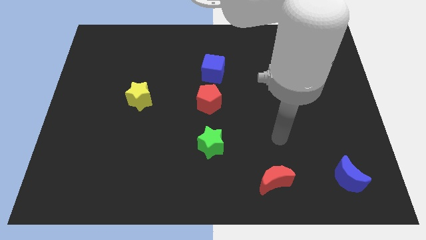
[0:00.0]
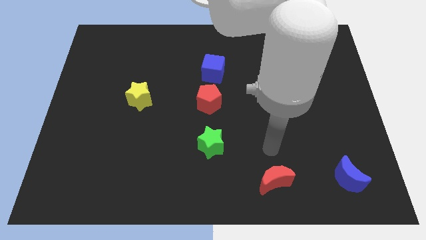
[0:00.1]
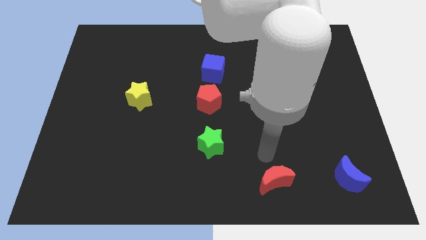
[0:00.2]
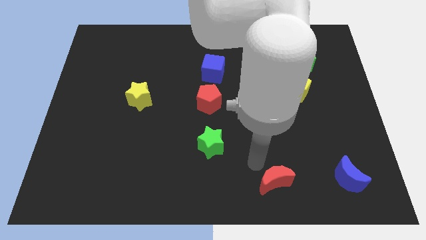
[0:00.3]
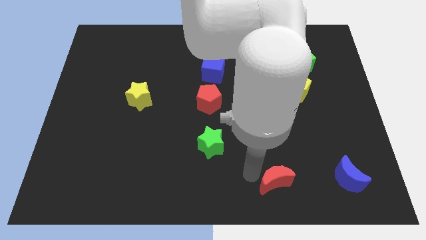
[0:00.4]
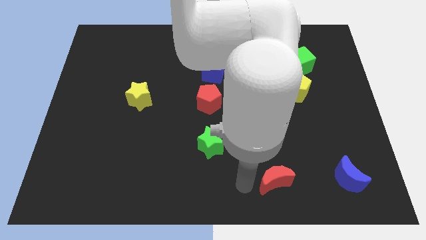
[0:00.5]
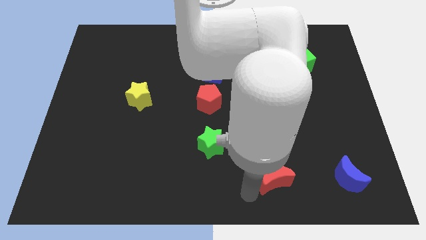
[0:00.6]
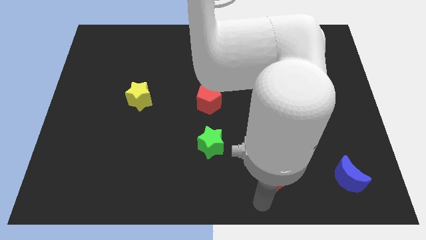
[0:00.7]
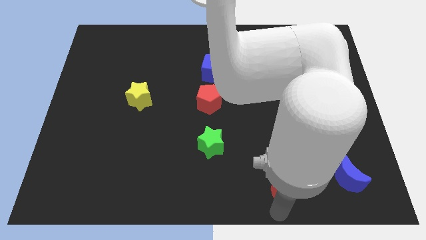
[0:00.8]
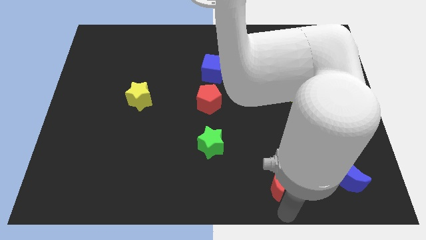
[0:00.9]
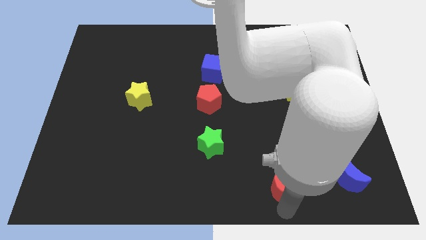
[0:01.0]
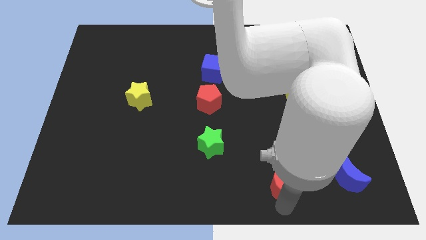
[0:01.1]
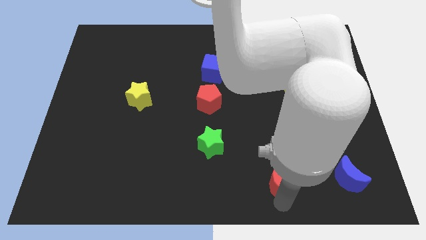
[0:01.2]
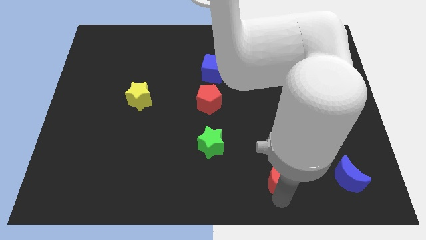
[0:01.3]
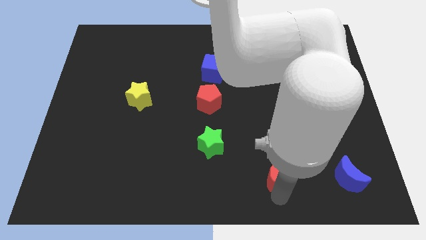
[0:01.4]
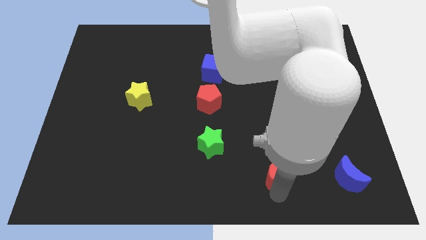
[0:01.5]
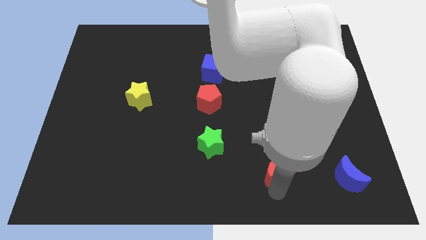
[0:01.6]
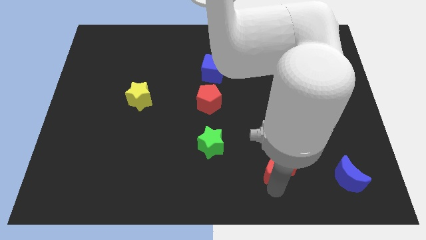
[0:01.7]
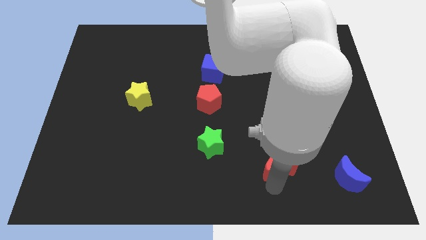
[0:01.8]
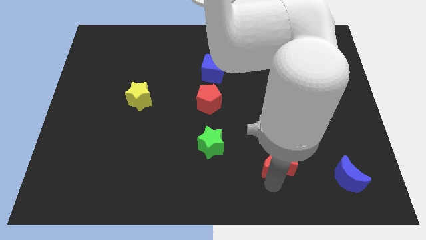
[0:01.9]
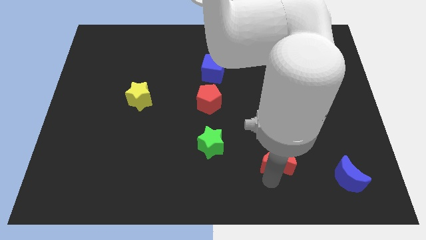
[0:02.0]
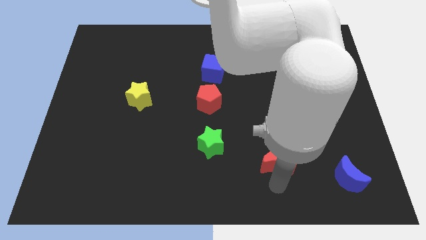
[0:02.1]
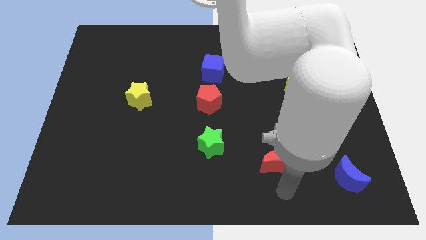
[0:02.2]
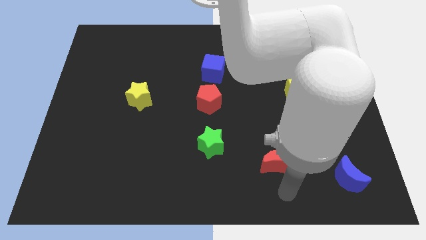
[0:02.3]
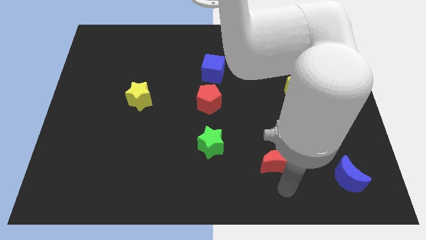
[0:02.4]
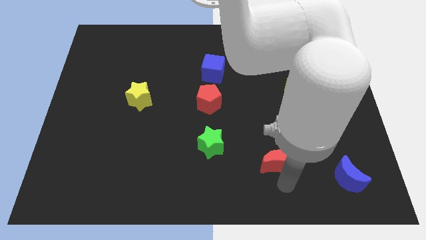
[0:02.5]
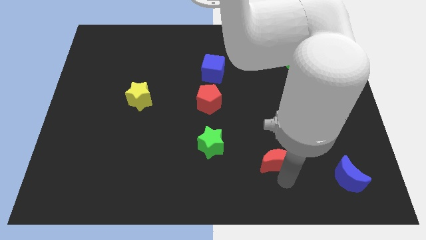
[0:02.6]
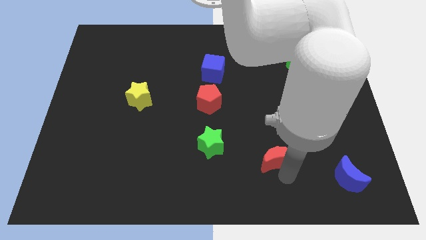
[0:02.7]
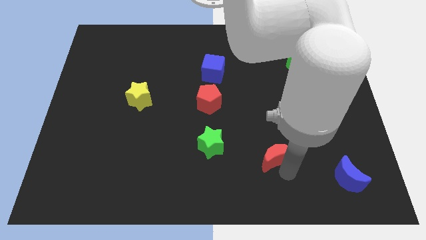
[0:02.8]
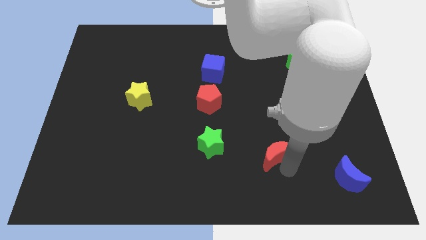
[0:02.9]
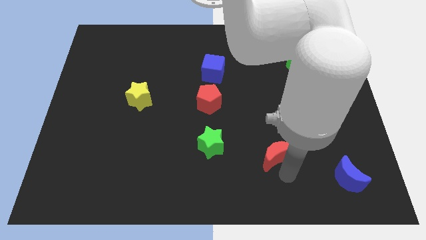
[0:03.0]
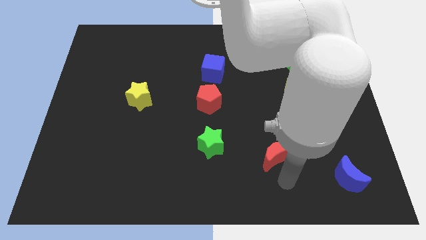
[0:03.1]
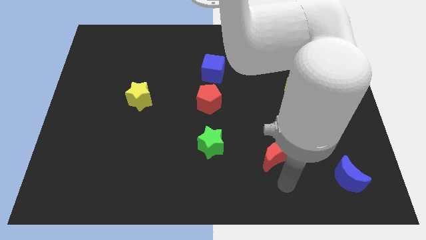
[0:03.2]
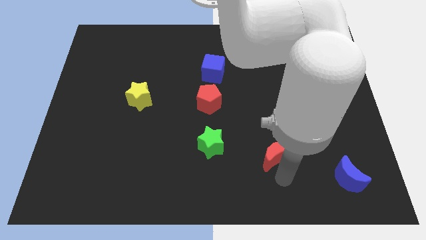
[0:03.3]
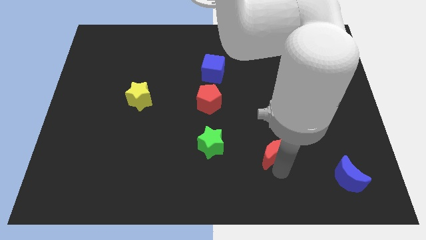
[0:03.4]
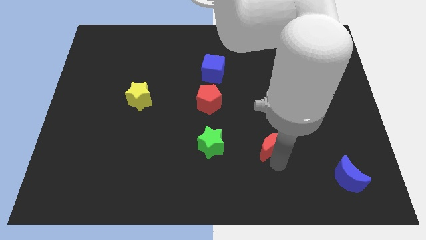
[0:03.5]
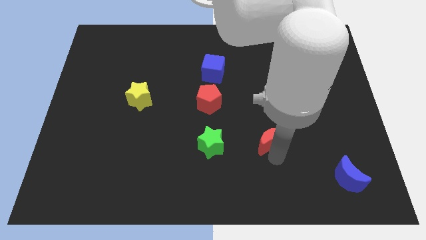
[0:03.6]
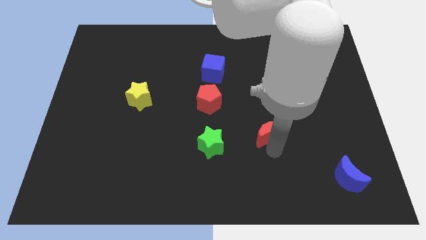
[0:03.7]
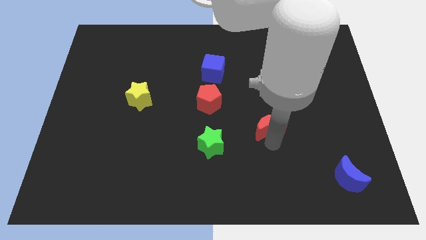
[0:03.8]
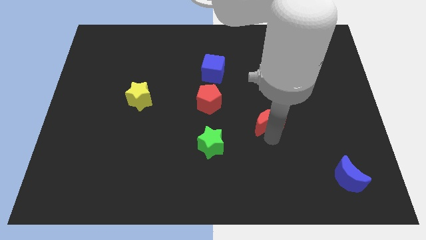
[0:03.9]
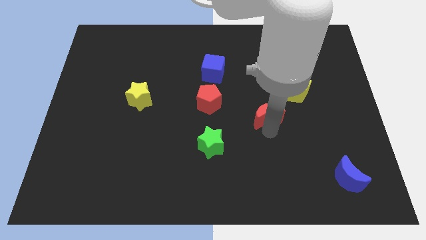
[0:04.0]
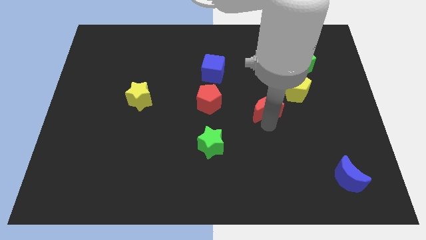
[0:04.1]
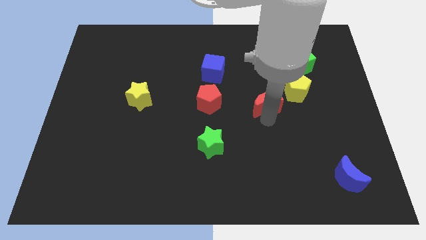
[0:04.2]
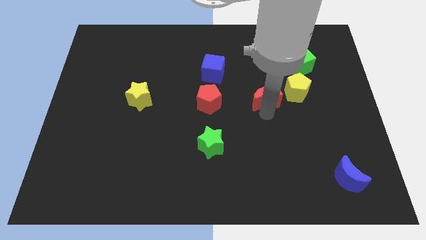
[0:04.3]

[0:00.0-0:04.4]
move the red moon up

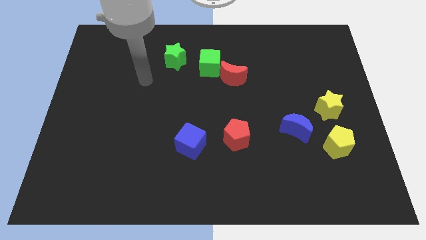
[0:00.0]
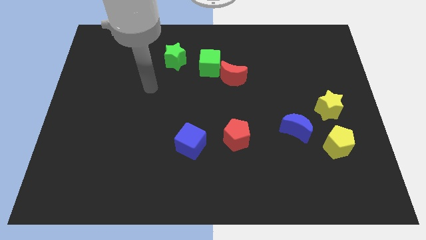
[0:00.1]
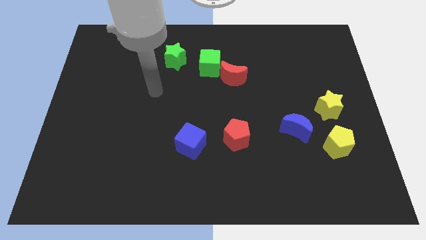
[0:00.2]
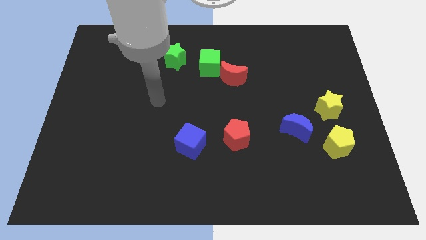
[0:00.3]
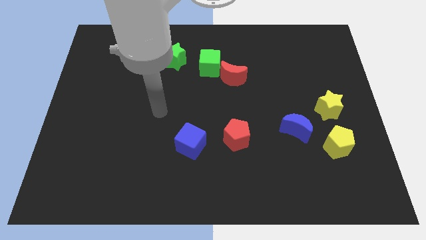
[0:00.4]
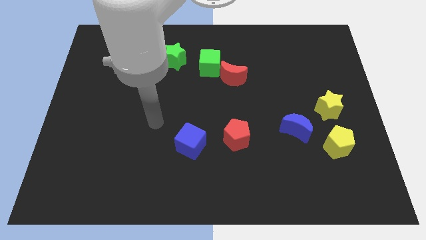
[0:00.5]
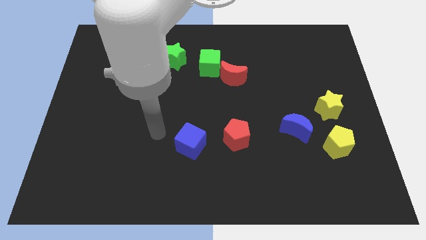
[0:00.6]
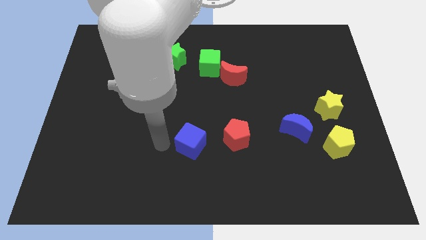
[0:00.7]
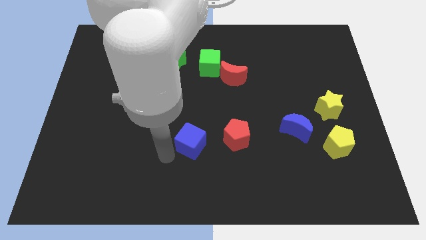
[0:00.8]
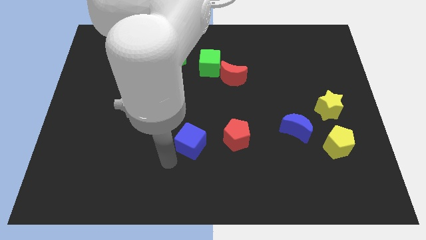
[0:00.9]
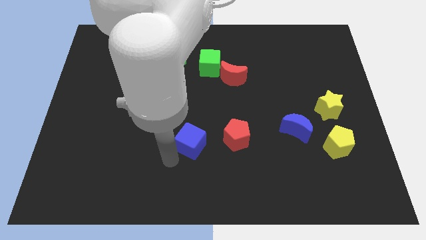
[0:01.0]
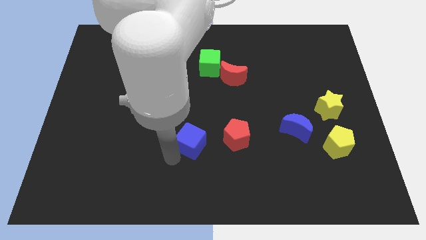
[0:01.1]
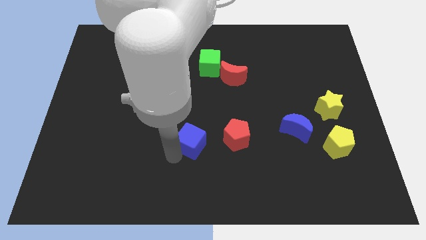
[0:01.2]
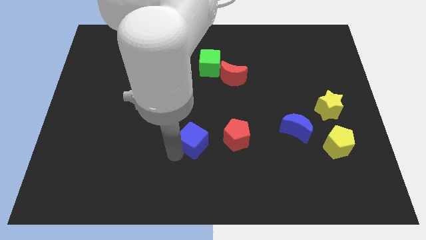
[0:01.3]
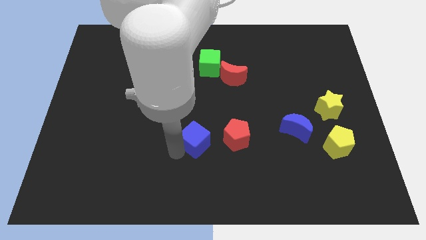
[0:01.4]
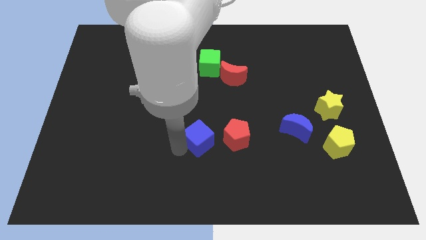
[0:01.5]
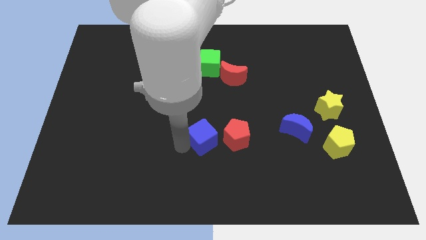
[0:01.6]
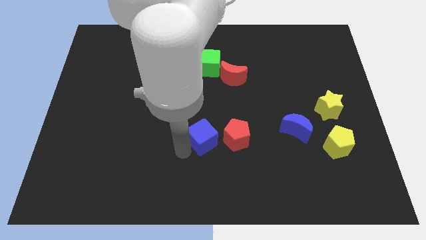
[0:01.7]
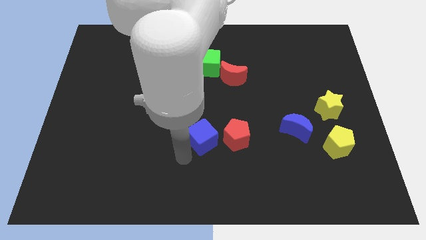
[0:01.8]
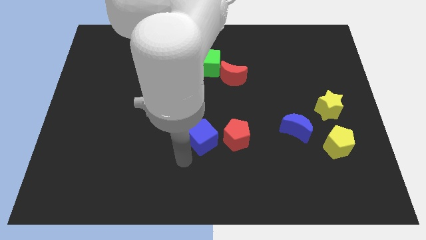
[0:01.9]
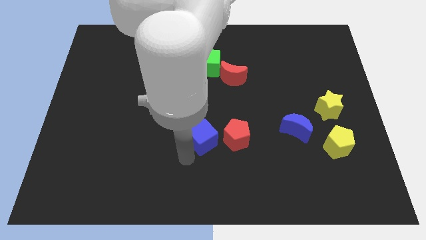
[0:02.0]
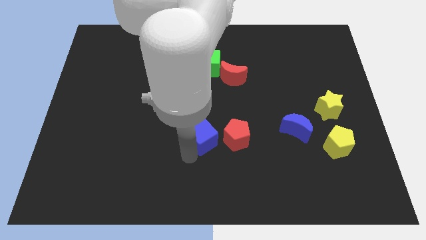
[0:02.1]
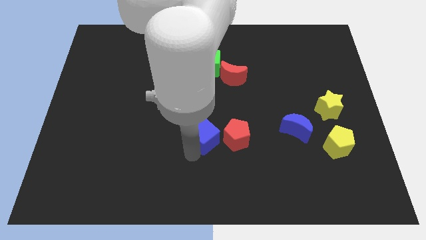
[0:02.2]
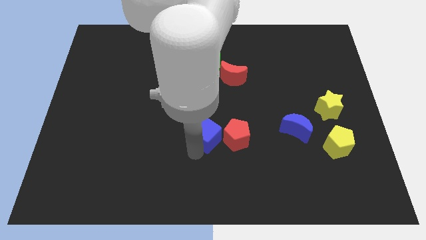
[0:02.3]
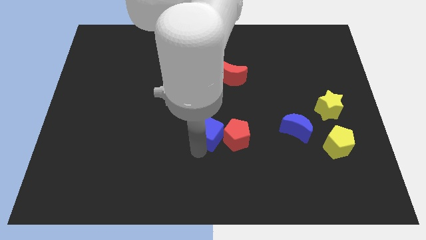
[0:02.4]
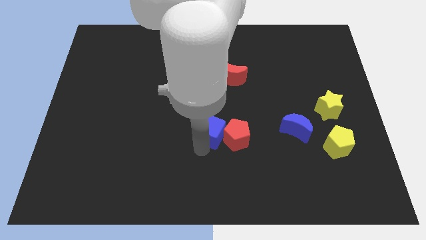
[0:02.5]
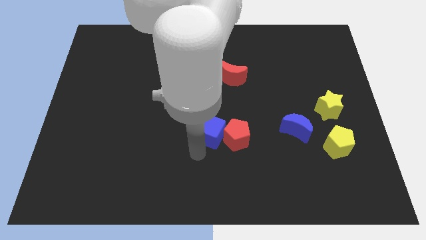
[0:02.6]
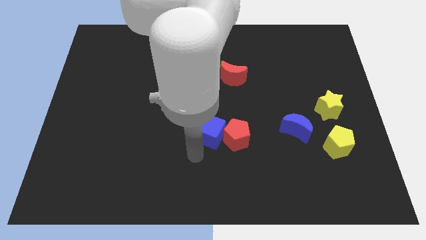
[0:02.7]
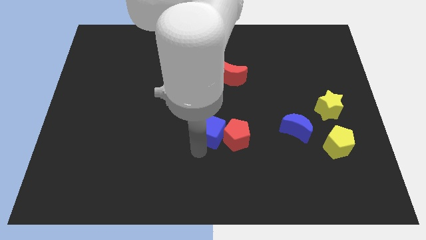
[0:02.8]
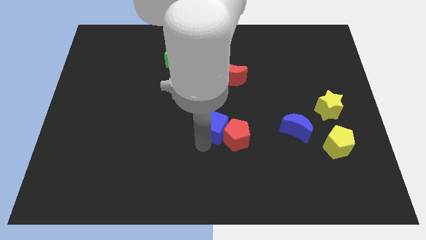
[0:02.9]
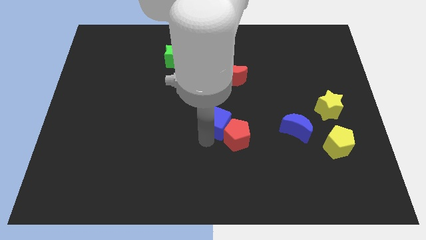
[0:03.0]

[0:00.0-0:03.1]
move the blue cube a little bit up and then to the right

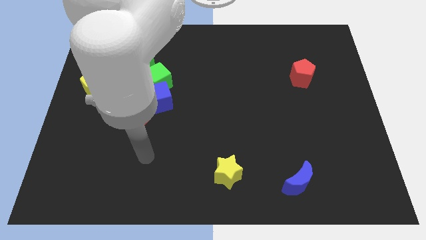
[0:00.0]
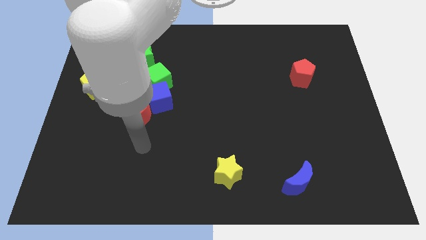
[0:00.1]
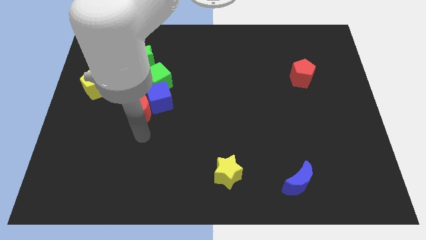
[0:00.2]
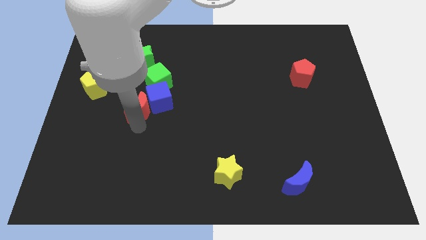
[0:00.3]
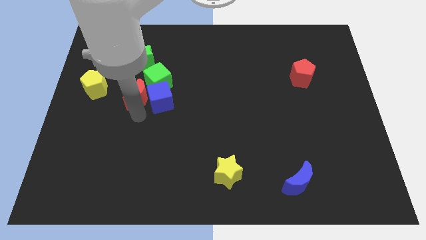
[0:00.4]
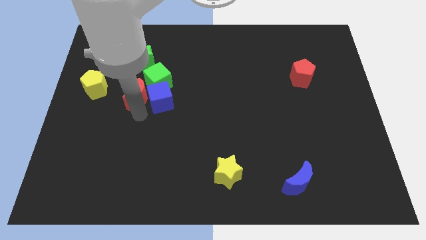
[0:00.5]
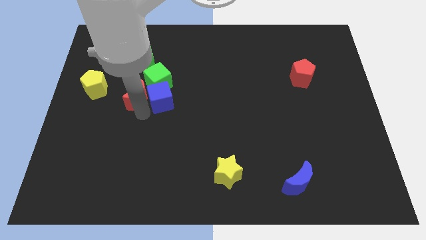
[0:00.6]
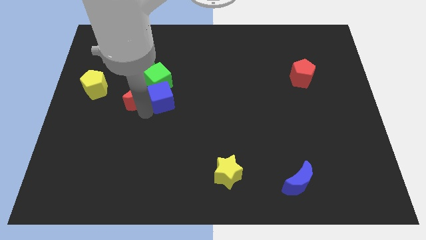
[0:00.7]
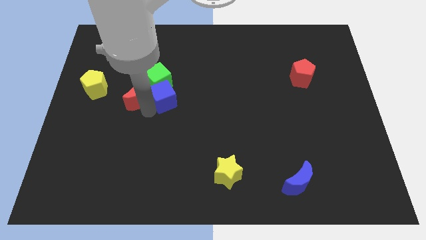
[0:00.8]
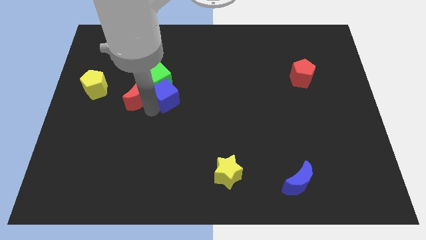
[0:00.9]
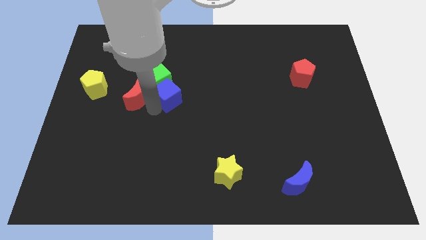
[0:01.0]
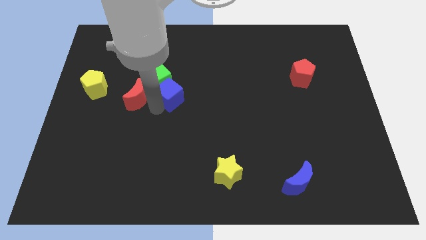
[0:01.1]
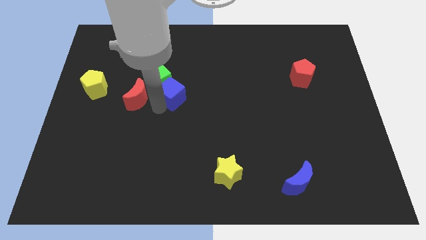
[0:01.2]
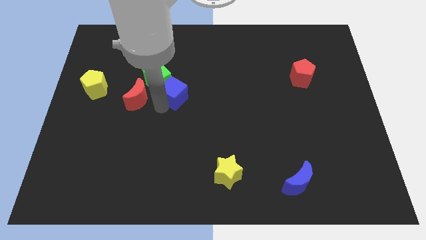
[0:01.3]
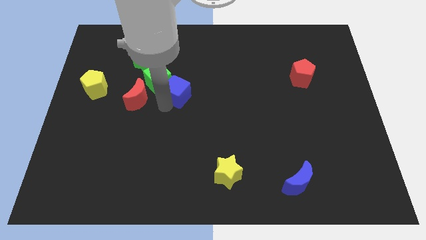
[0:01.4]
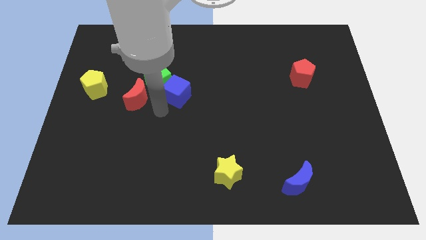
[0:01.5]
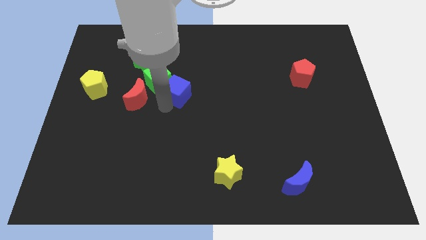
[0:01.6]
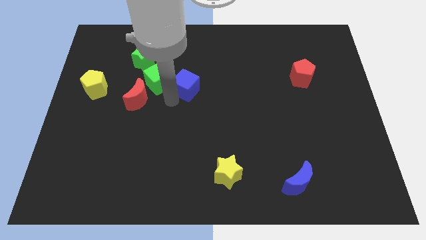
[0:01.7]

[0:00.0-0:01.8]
push the blue cube up and to the right diagonally somewhat
